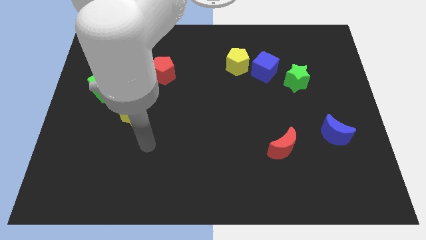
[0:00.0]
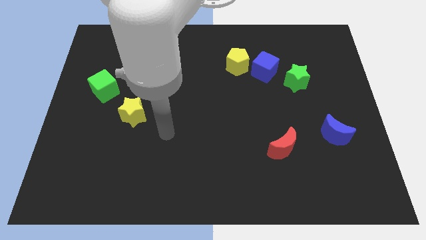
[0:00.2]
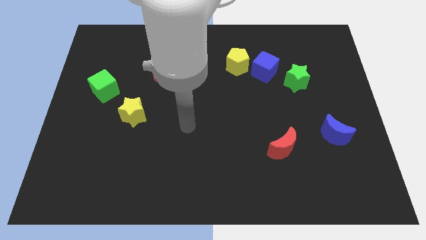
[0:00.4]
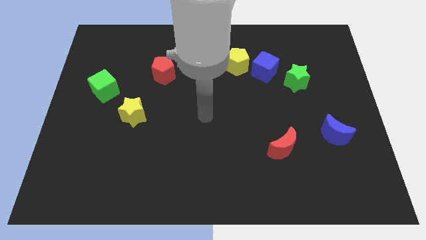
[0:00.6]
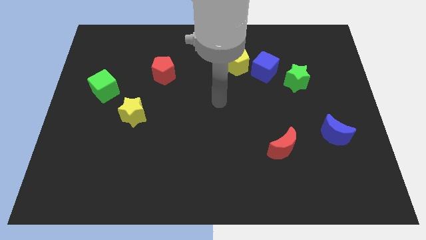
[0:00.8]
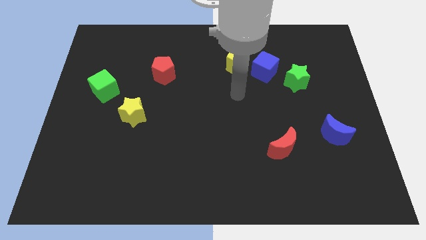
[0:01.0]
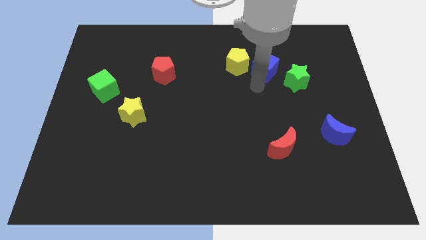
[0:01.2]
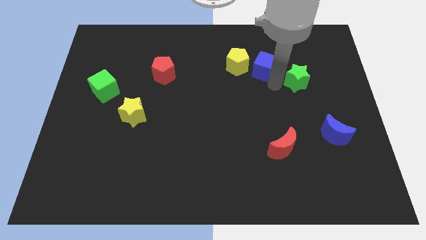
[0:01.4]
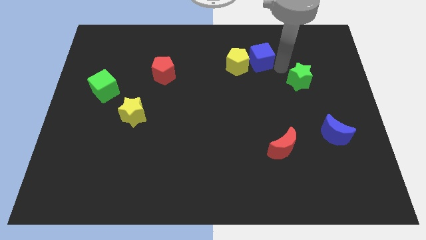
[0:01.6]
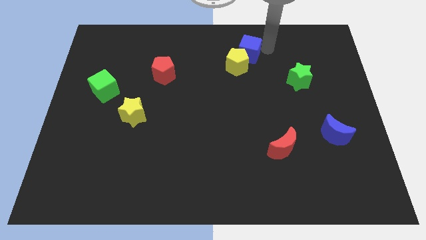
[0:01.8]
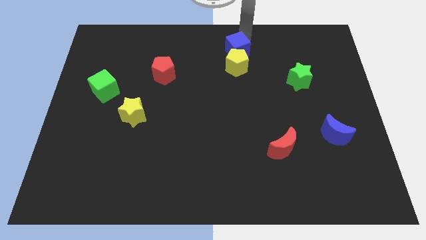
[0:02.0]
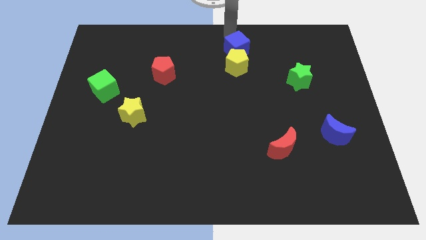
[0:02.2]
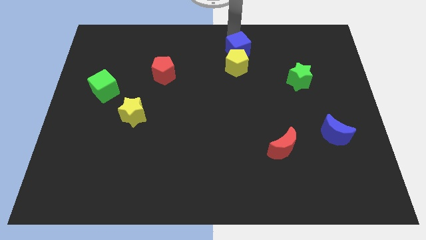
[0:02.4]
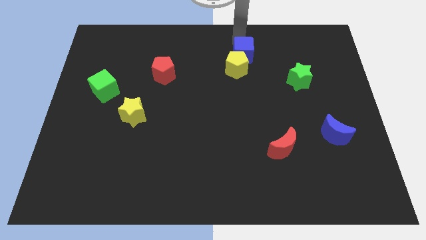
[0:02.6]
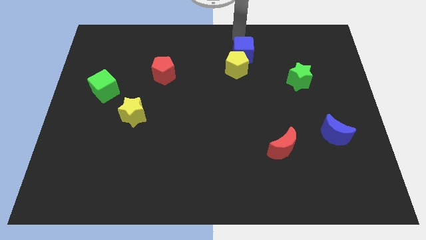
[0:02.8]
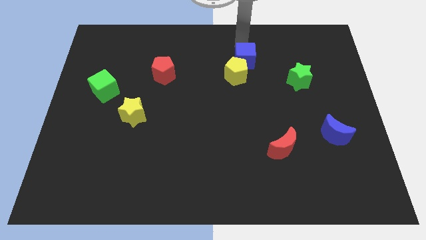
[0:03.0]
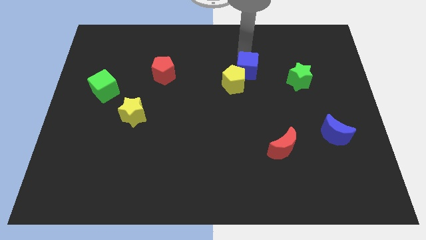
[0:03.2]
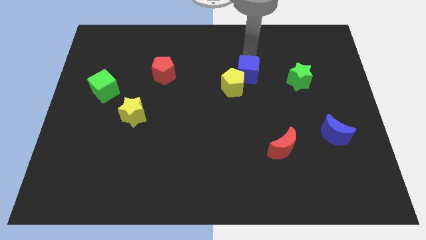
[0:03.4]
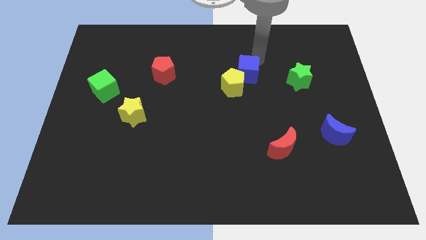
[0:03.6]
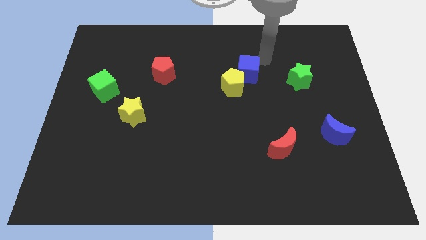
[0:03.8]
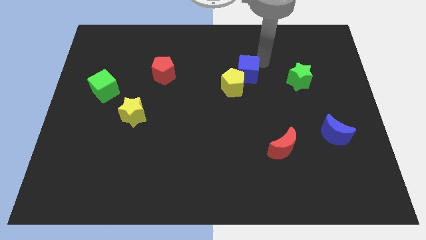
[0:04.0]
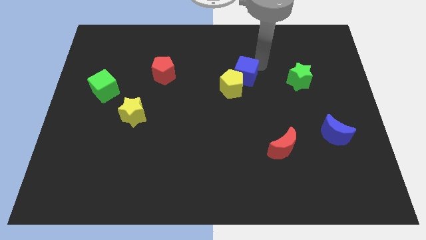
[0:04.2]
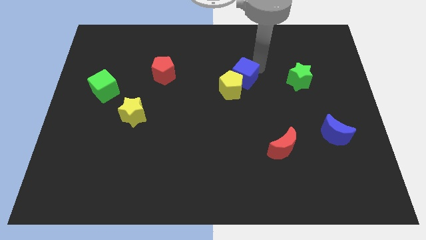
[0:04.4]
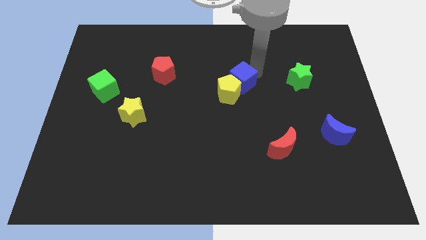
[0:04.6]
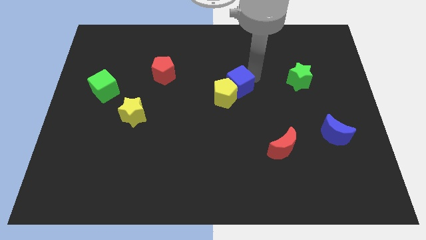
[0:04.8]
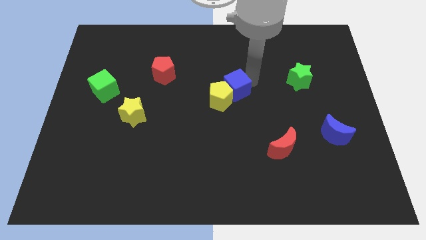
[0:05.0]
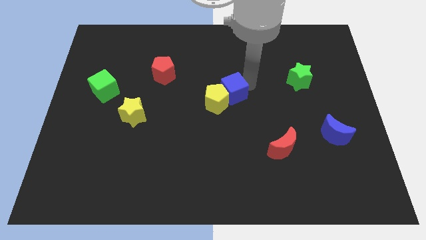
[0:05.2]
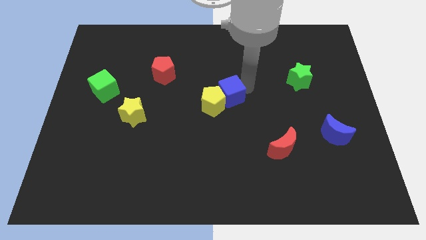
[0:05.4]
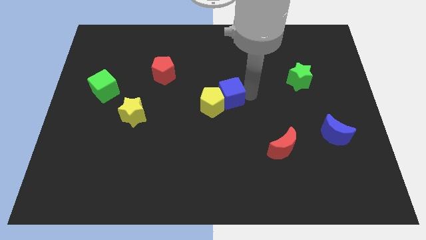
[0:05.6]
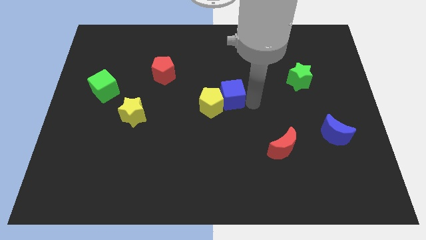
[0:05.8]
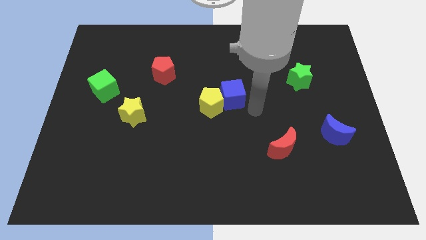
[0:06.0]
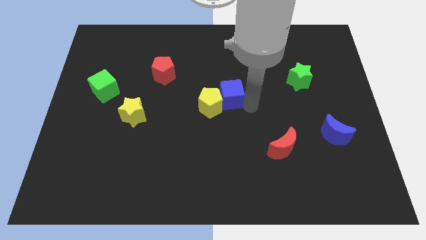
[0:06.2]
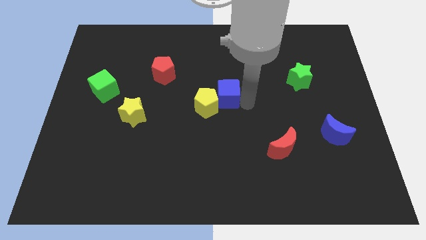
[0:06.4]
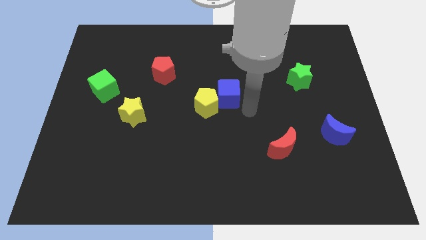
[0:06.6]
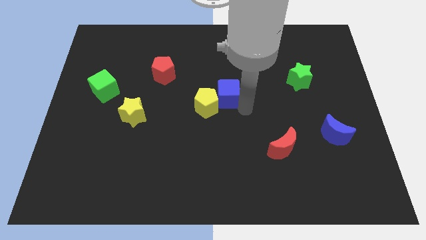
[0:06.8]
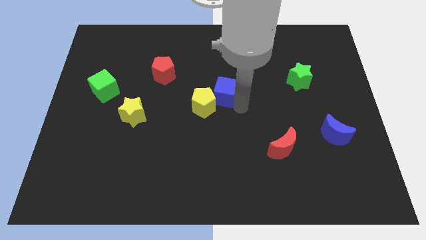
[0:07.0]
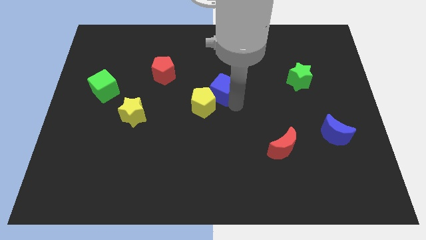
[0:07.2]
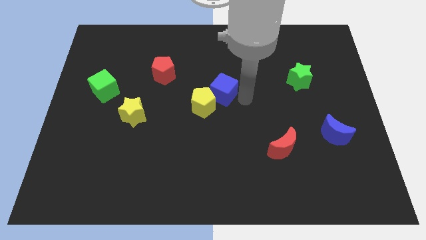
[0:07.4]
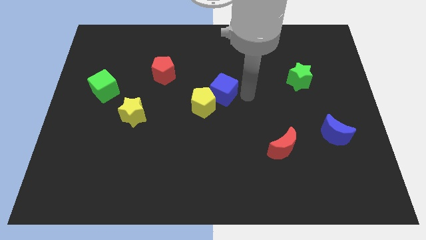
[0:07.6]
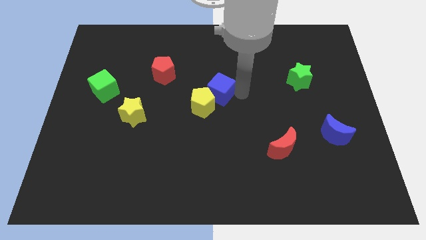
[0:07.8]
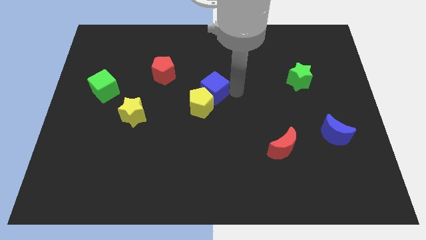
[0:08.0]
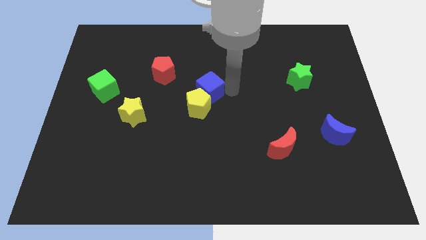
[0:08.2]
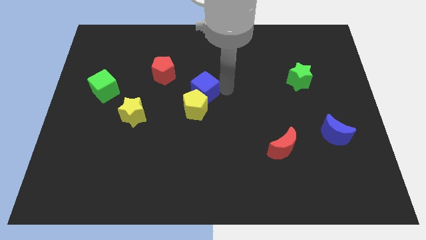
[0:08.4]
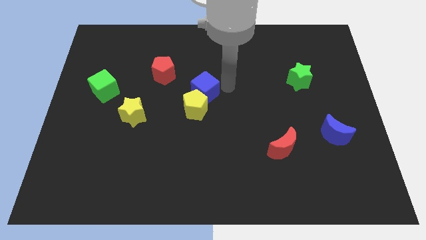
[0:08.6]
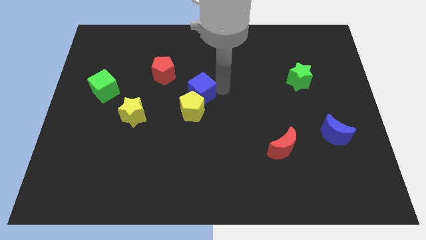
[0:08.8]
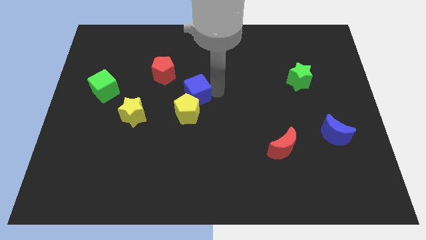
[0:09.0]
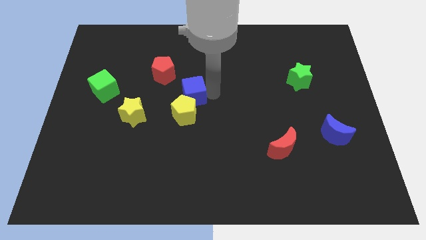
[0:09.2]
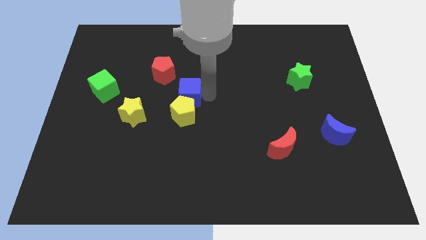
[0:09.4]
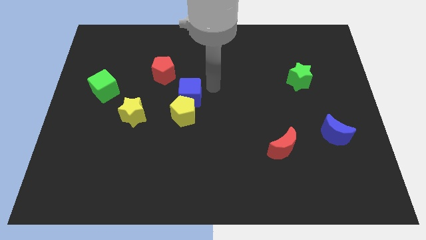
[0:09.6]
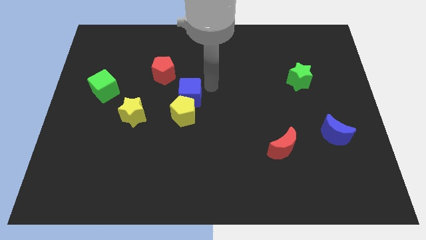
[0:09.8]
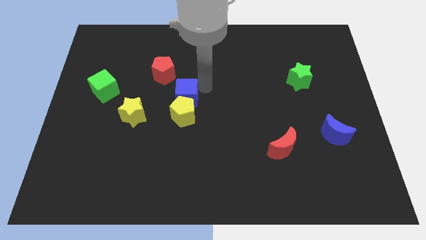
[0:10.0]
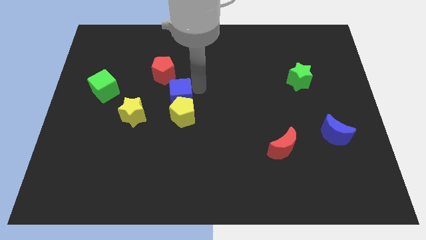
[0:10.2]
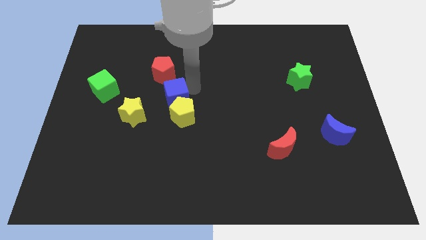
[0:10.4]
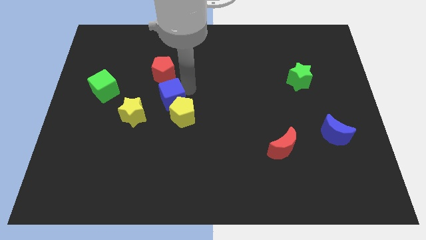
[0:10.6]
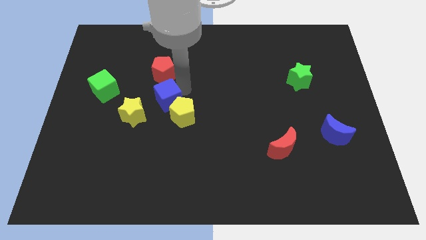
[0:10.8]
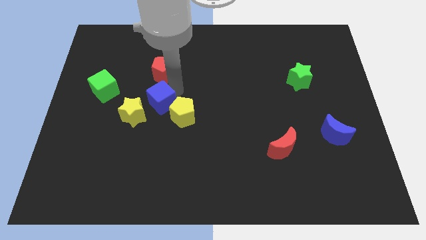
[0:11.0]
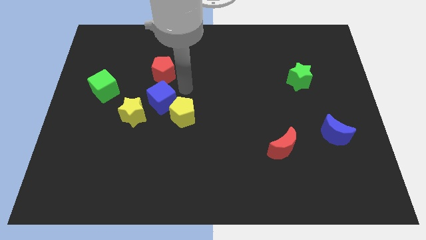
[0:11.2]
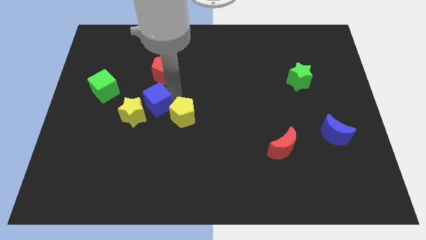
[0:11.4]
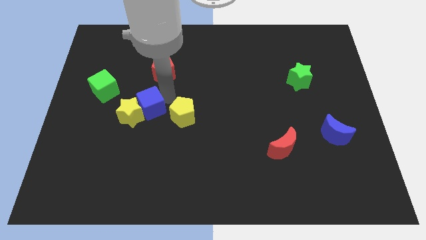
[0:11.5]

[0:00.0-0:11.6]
slide the blue cube towards the yellow star

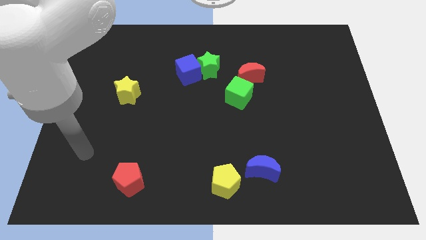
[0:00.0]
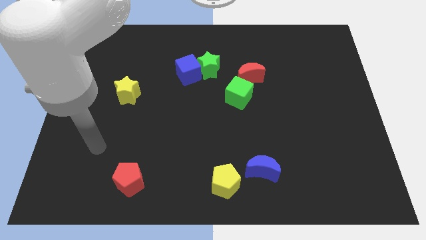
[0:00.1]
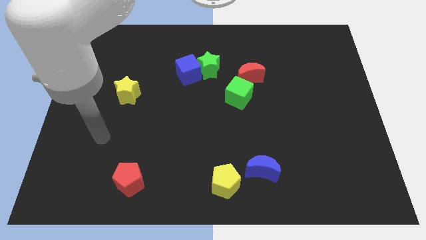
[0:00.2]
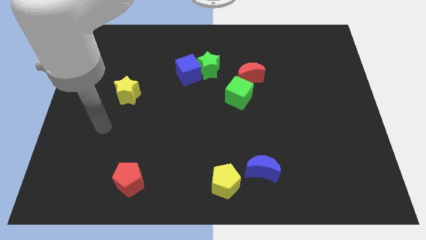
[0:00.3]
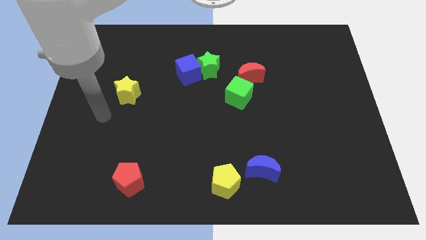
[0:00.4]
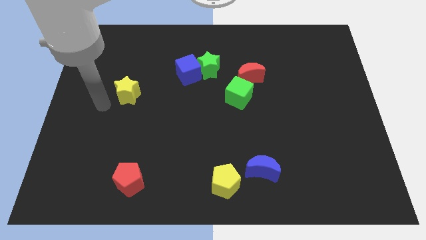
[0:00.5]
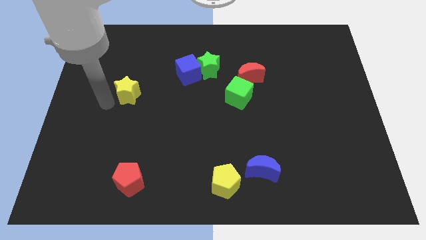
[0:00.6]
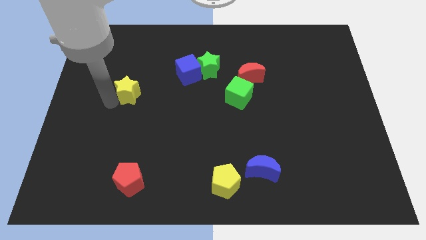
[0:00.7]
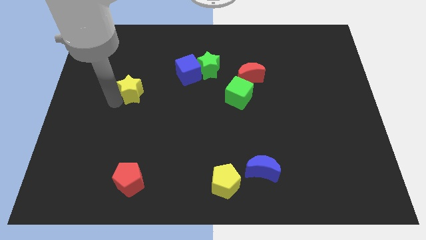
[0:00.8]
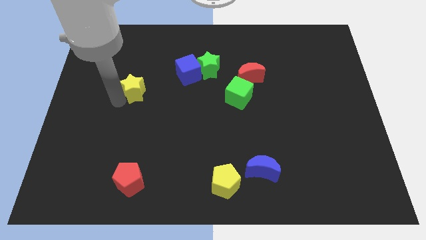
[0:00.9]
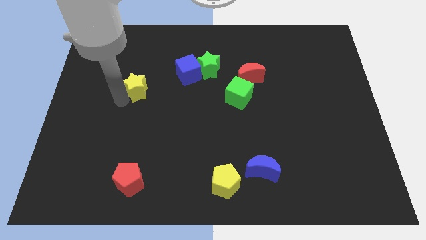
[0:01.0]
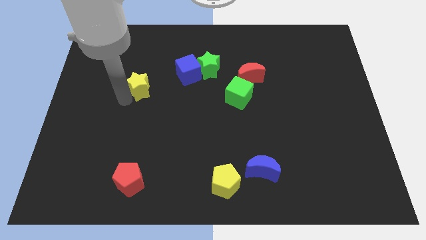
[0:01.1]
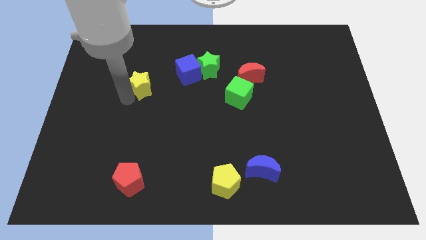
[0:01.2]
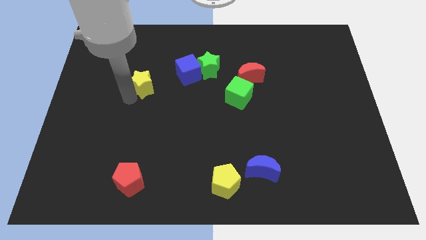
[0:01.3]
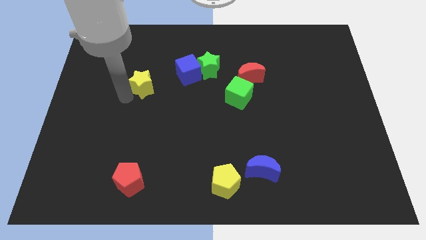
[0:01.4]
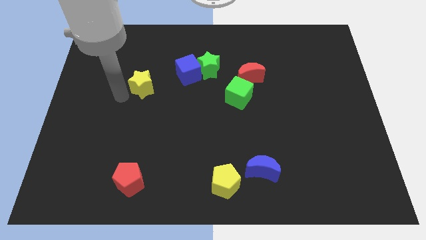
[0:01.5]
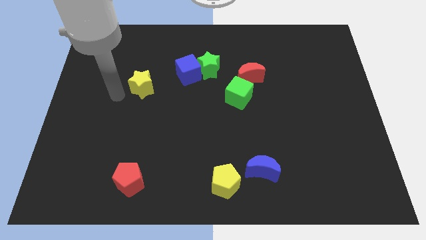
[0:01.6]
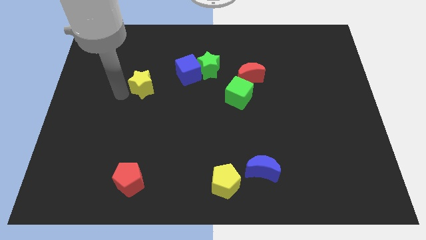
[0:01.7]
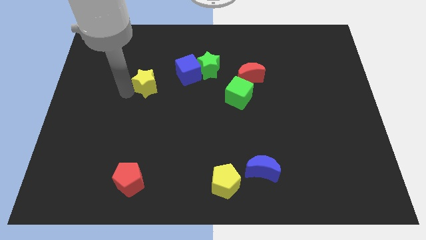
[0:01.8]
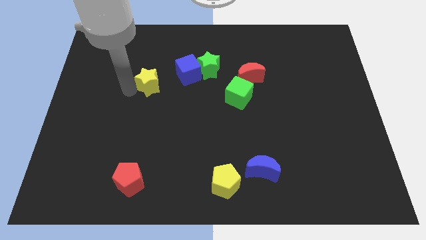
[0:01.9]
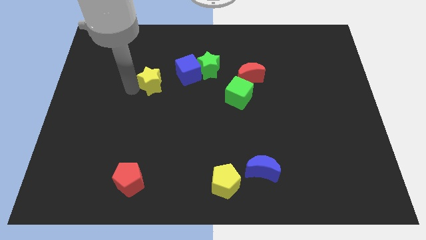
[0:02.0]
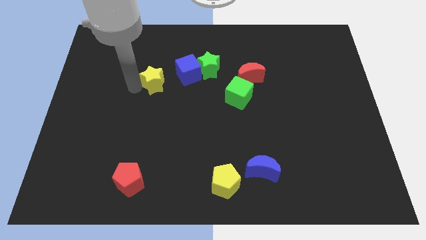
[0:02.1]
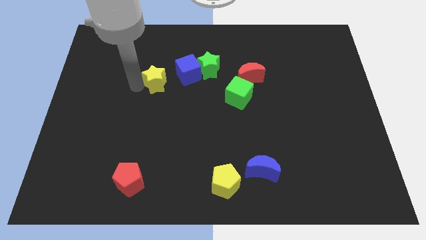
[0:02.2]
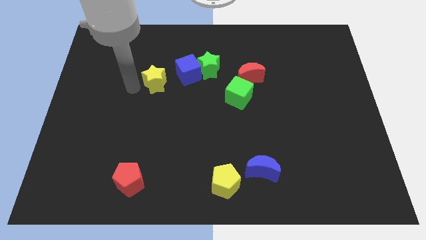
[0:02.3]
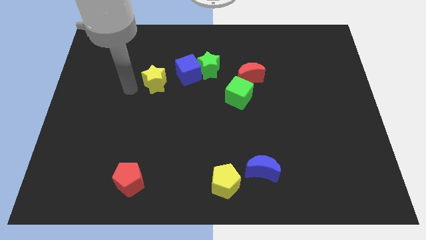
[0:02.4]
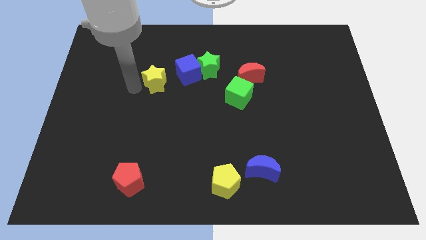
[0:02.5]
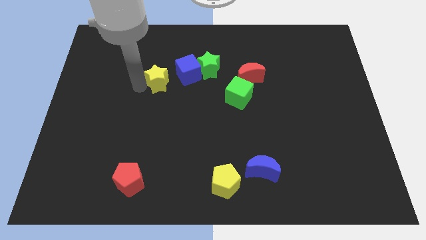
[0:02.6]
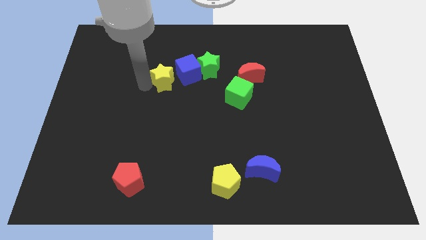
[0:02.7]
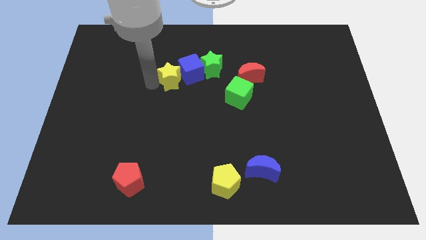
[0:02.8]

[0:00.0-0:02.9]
put the yellow star towards the blue cube
